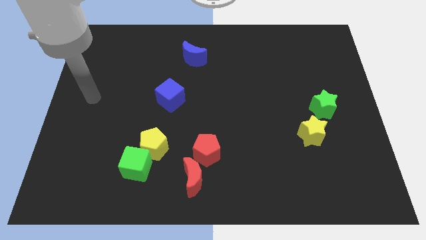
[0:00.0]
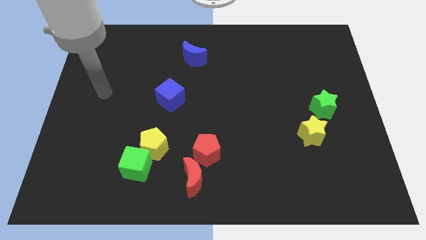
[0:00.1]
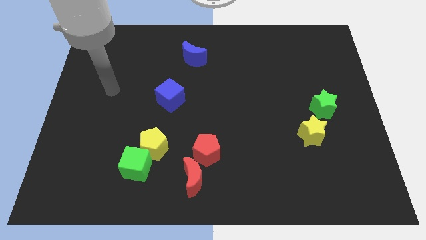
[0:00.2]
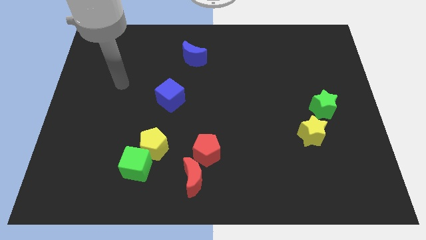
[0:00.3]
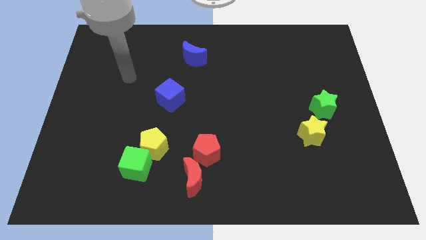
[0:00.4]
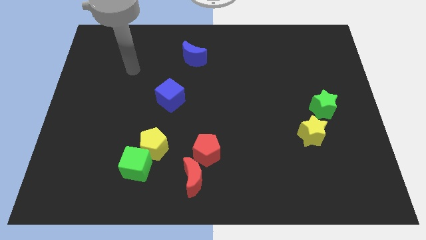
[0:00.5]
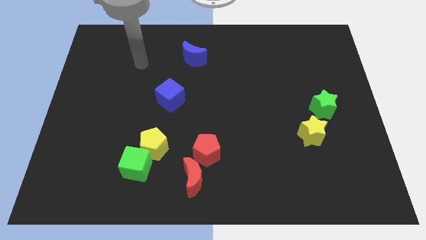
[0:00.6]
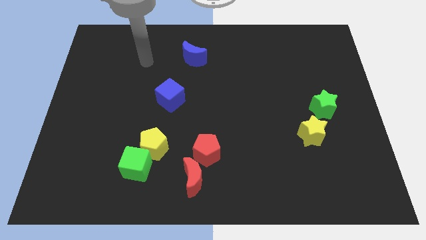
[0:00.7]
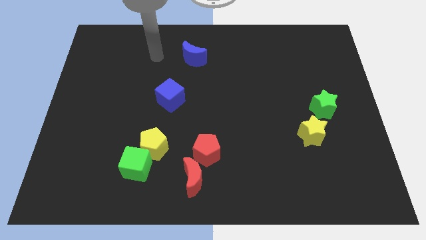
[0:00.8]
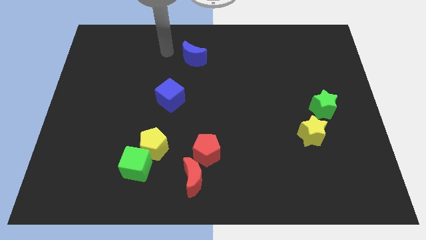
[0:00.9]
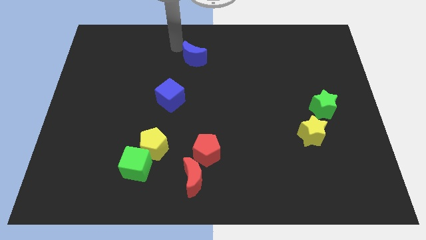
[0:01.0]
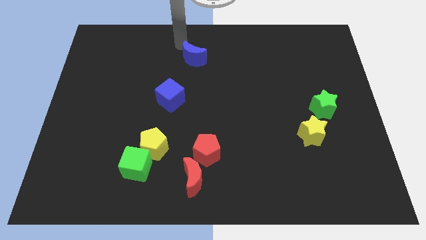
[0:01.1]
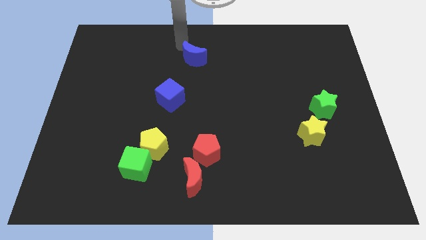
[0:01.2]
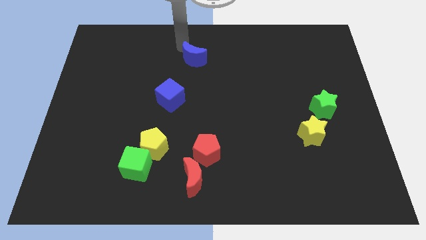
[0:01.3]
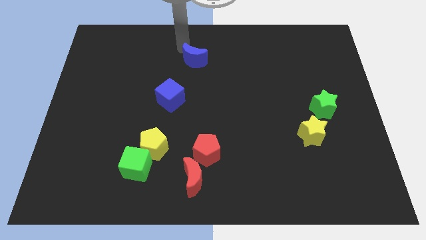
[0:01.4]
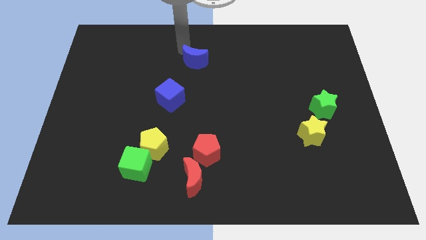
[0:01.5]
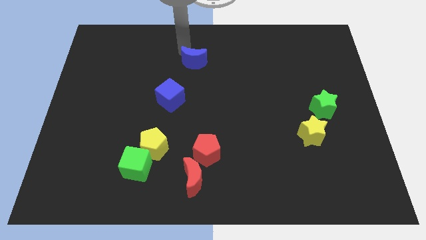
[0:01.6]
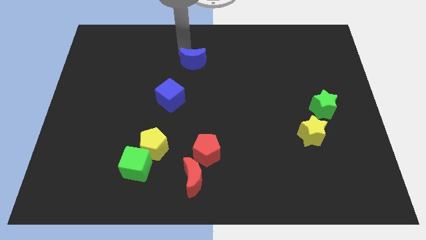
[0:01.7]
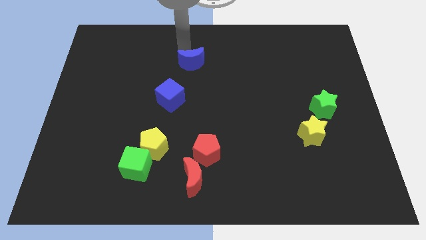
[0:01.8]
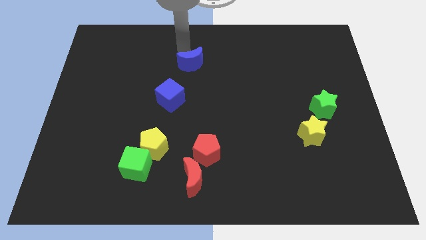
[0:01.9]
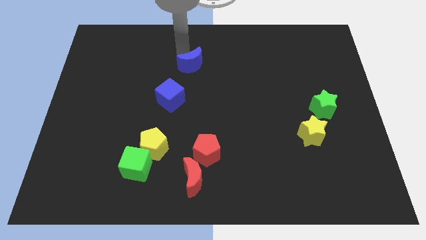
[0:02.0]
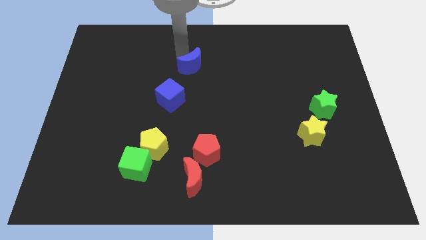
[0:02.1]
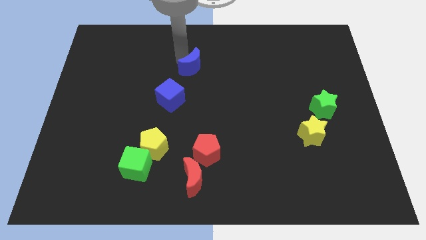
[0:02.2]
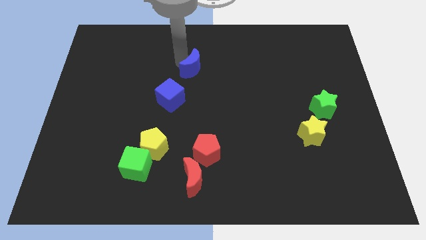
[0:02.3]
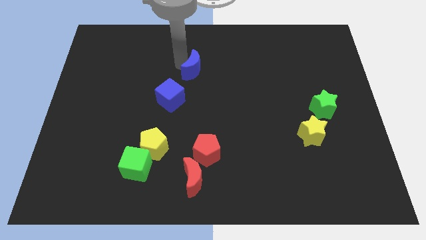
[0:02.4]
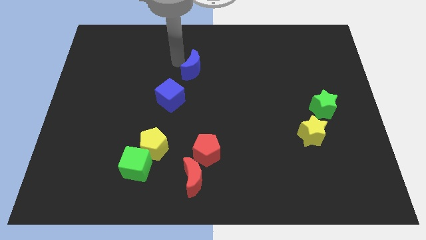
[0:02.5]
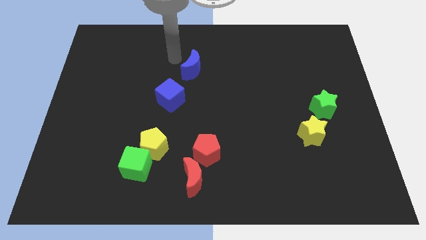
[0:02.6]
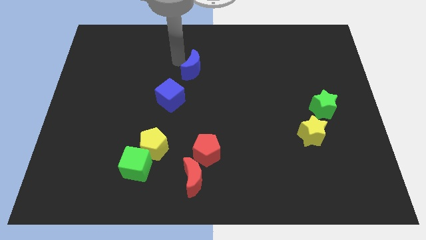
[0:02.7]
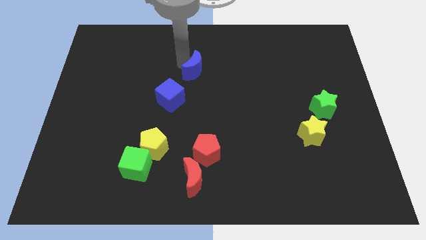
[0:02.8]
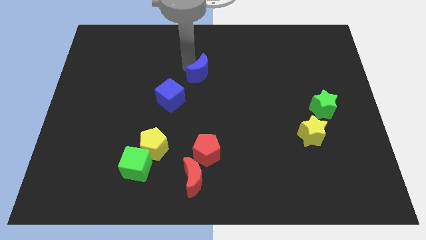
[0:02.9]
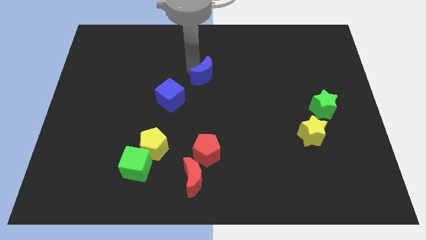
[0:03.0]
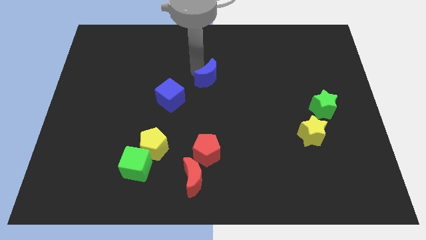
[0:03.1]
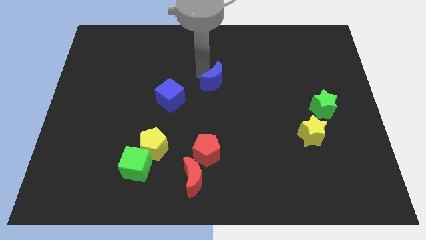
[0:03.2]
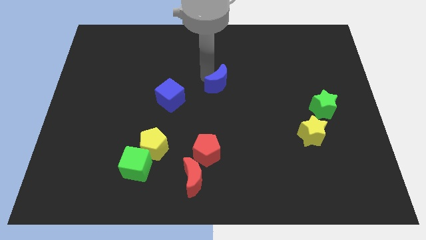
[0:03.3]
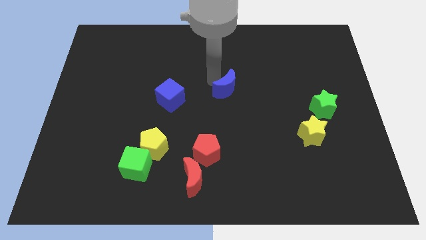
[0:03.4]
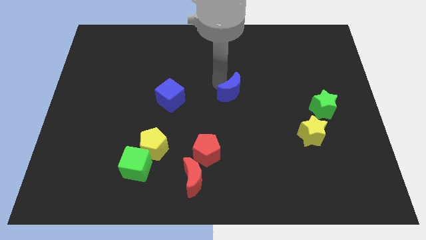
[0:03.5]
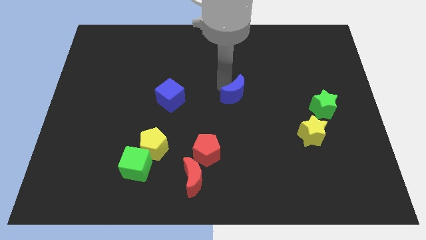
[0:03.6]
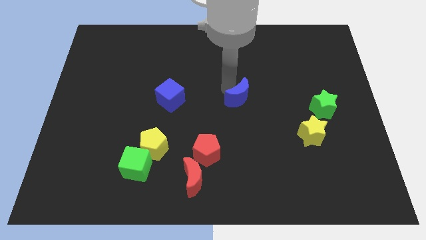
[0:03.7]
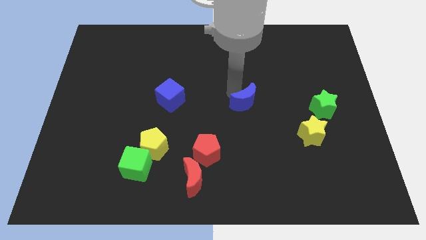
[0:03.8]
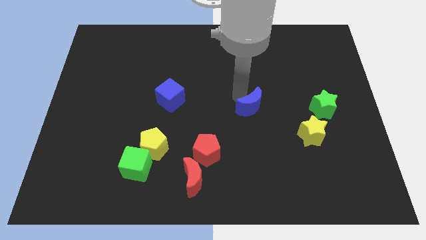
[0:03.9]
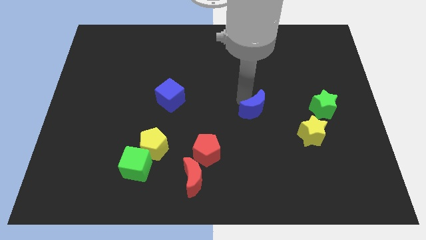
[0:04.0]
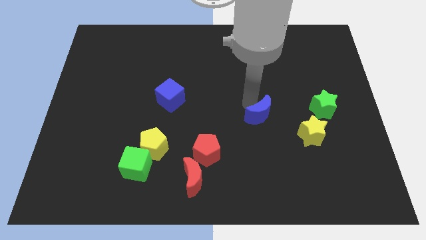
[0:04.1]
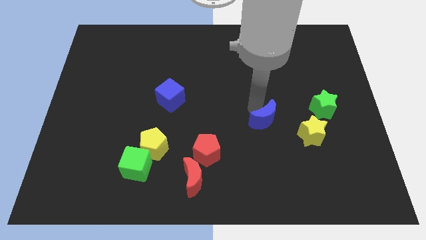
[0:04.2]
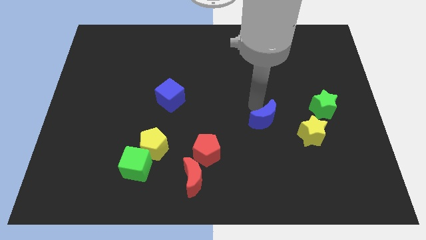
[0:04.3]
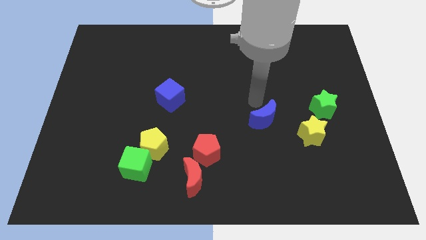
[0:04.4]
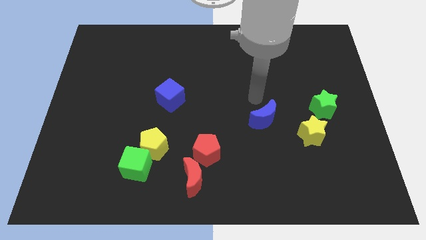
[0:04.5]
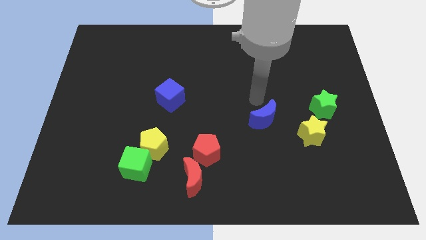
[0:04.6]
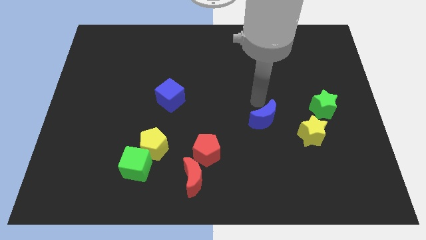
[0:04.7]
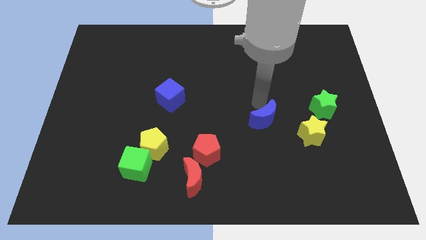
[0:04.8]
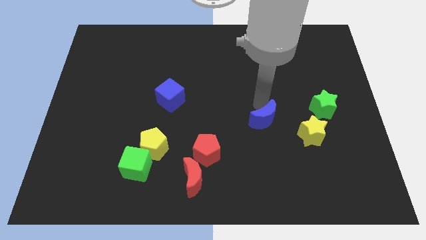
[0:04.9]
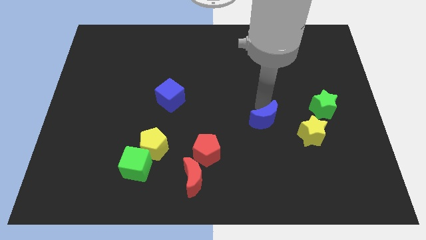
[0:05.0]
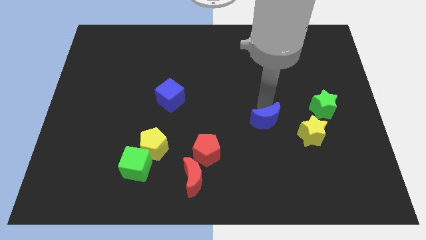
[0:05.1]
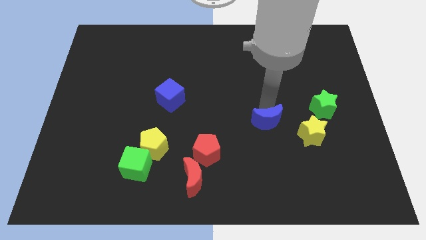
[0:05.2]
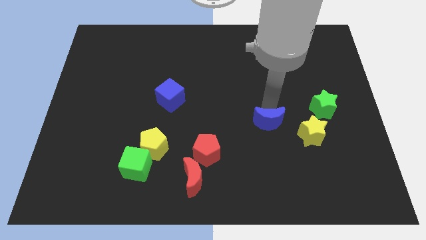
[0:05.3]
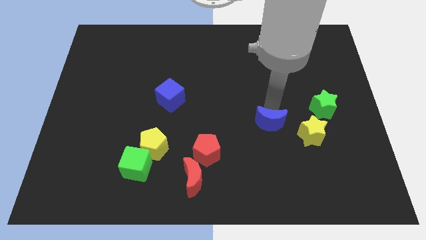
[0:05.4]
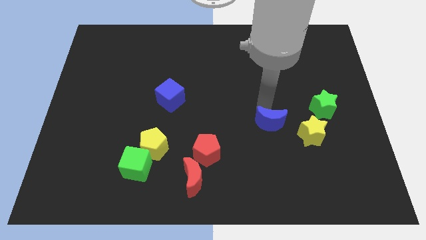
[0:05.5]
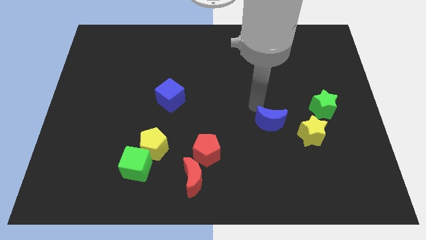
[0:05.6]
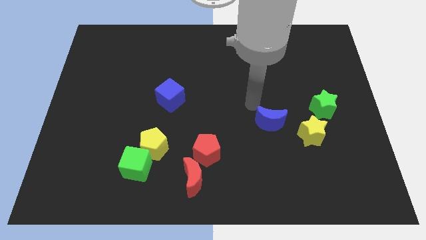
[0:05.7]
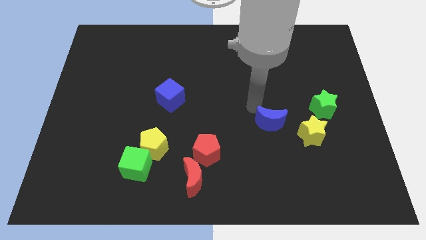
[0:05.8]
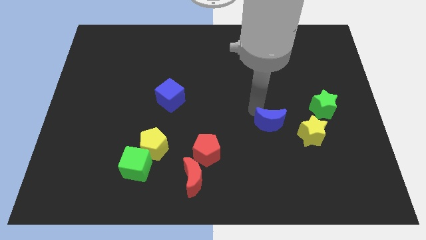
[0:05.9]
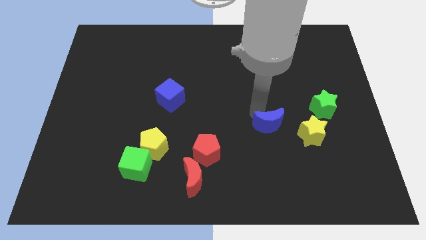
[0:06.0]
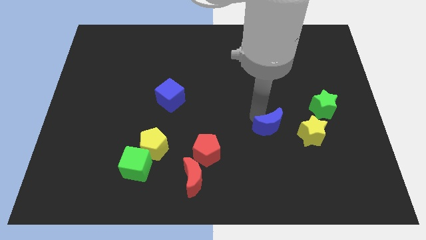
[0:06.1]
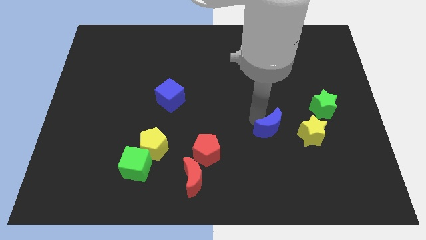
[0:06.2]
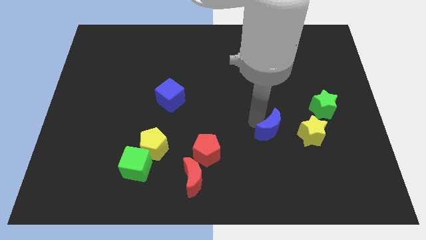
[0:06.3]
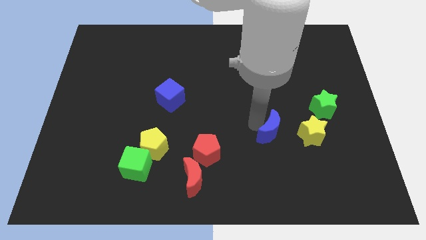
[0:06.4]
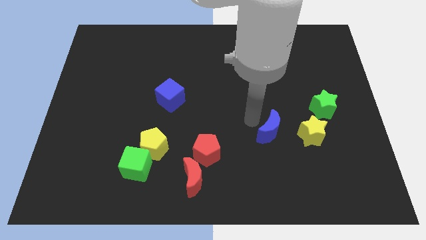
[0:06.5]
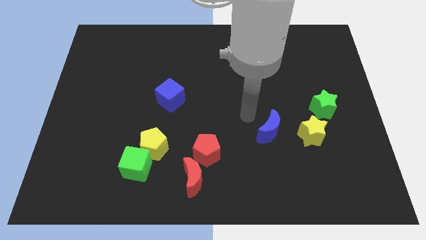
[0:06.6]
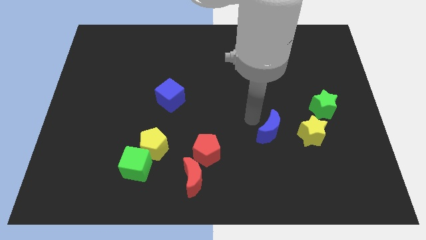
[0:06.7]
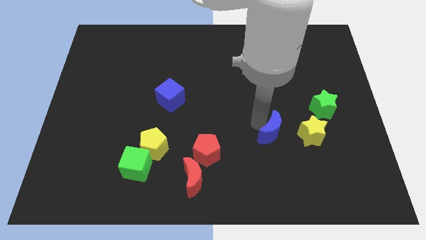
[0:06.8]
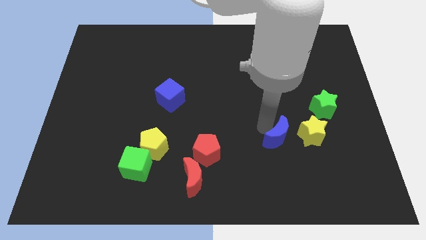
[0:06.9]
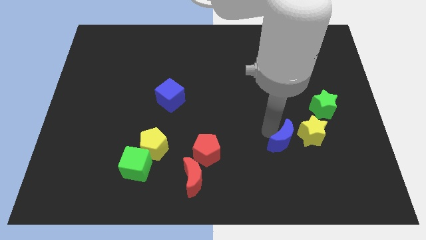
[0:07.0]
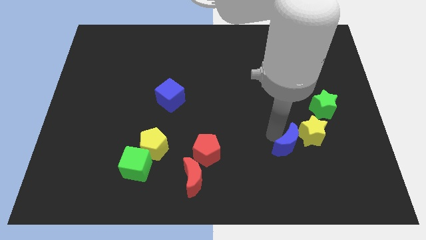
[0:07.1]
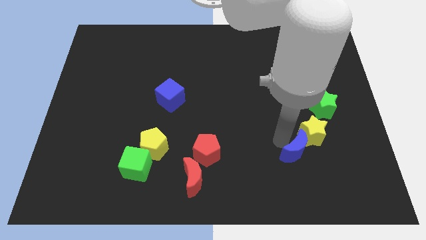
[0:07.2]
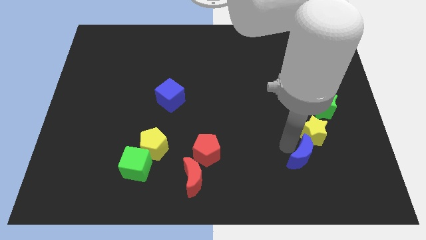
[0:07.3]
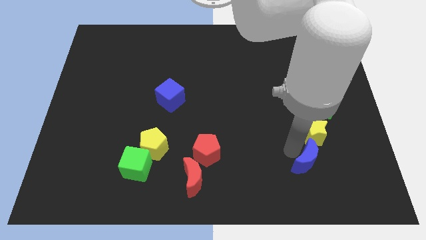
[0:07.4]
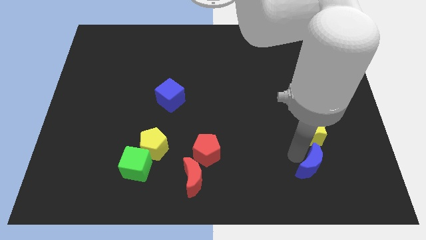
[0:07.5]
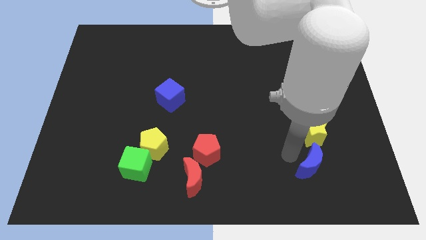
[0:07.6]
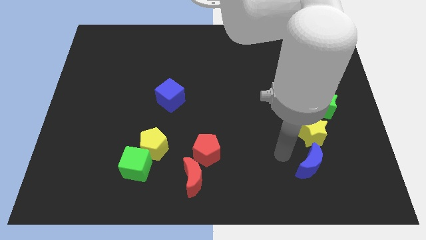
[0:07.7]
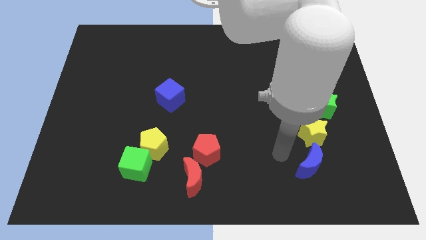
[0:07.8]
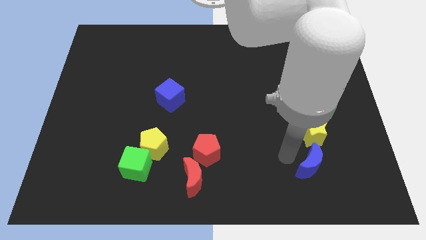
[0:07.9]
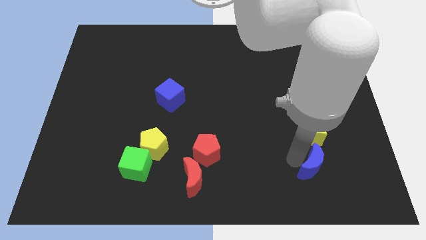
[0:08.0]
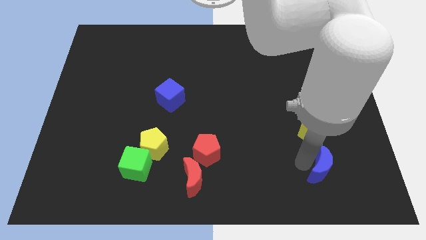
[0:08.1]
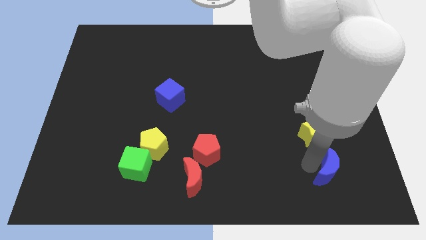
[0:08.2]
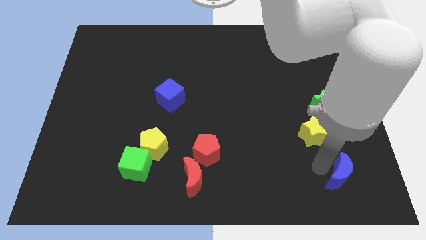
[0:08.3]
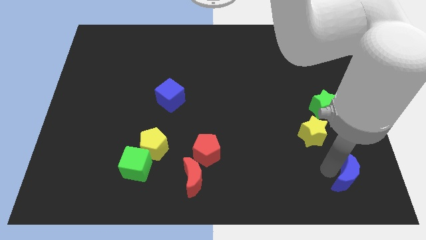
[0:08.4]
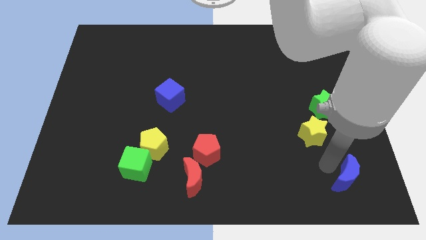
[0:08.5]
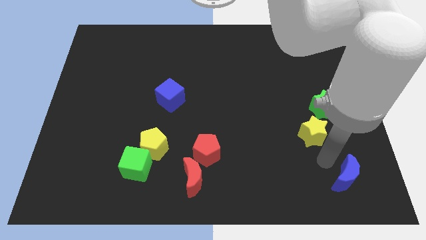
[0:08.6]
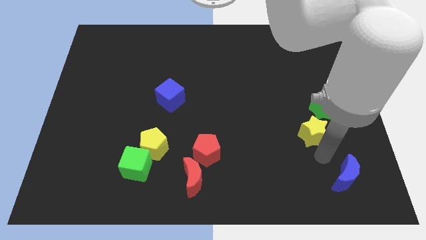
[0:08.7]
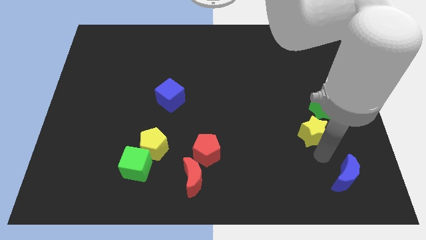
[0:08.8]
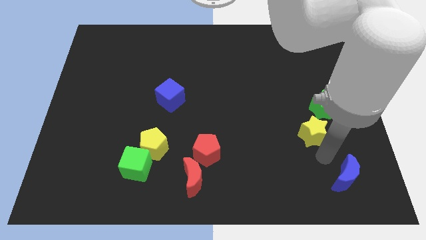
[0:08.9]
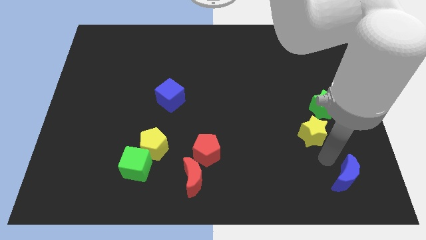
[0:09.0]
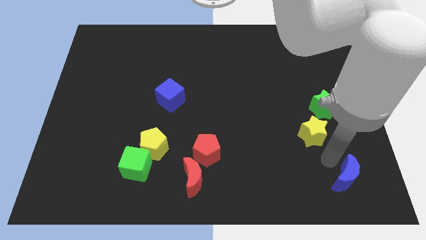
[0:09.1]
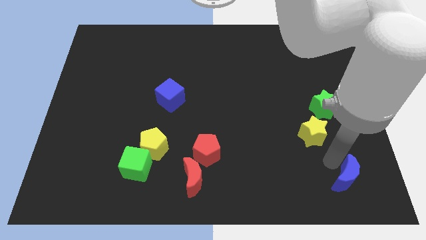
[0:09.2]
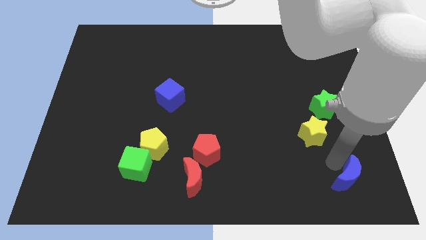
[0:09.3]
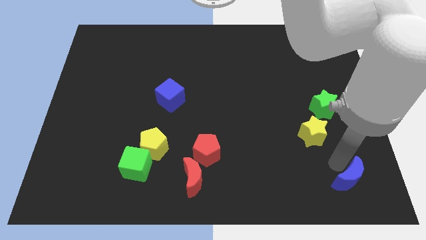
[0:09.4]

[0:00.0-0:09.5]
move the blue moon to the bottom right of the board
